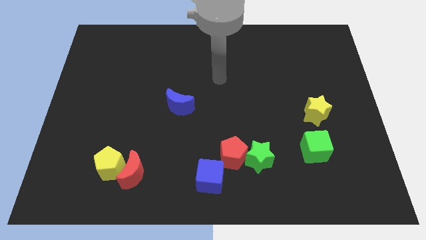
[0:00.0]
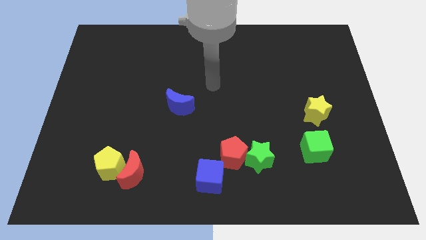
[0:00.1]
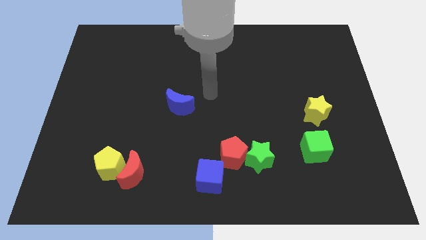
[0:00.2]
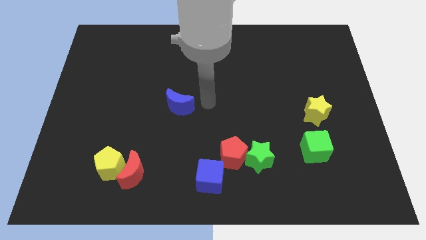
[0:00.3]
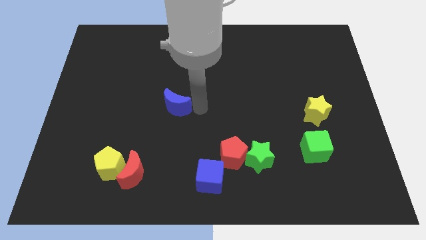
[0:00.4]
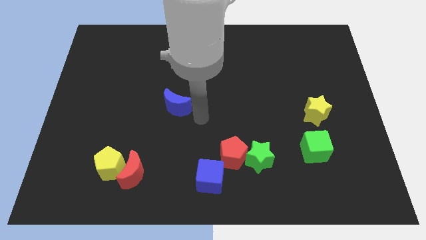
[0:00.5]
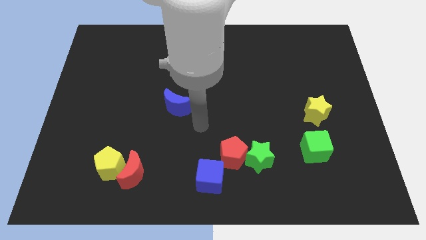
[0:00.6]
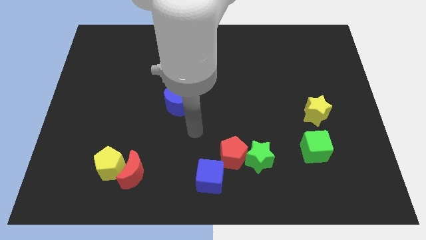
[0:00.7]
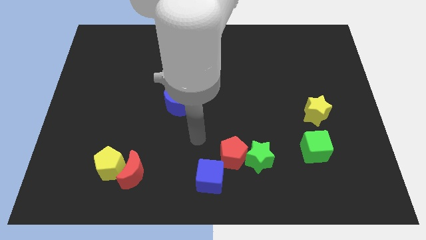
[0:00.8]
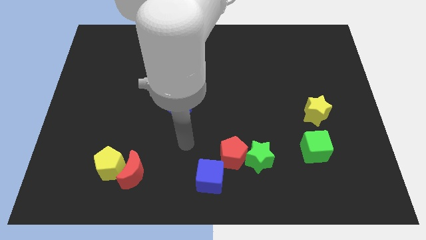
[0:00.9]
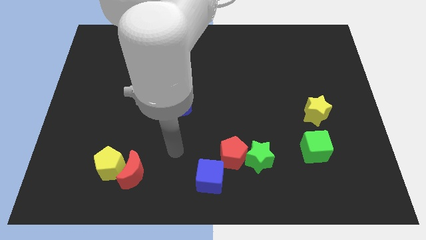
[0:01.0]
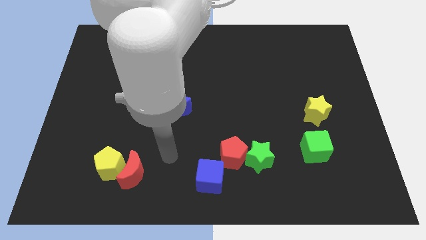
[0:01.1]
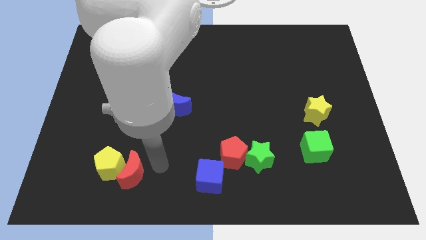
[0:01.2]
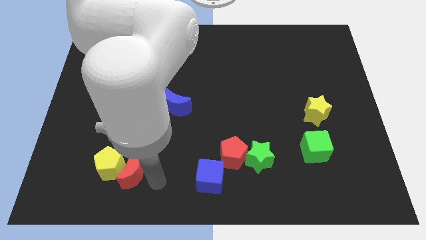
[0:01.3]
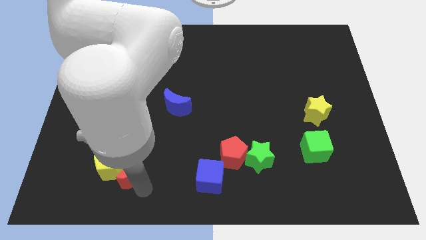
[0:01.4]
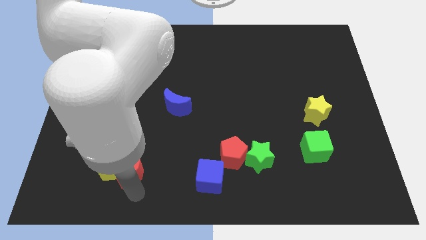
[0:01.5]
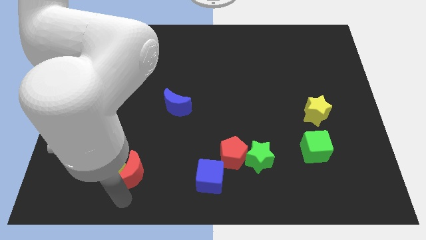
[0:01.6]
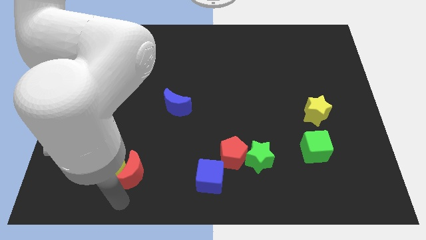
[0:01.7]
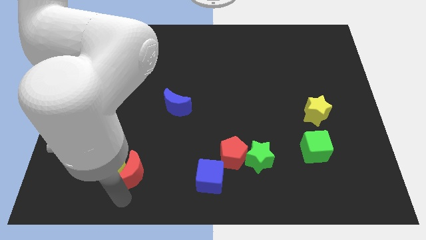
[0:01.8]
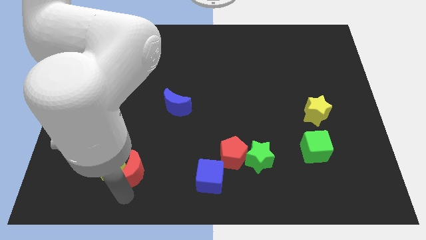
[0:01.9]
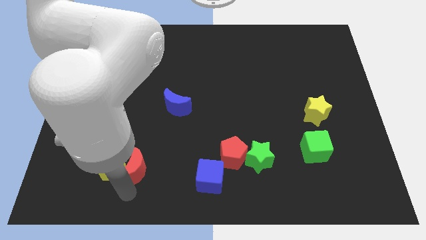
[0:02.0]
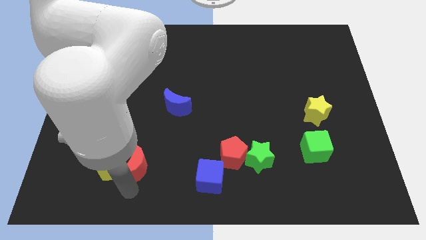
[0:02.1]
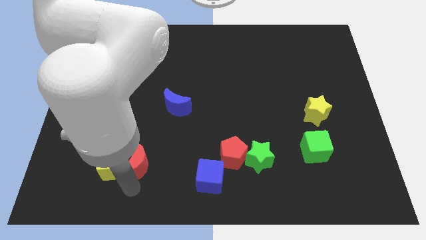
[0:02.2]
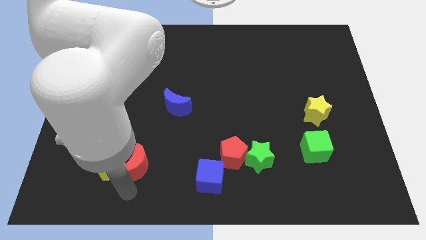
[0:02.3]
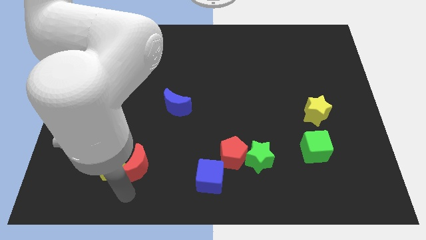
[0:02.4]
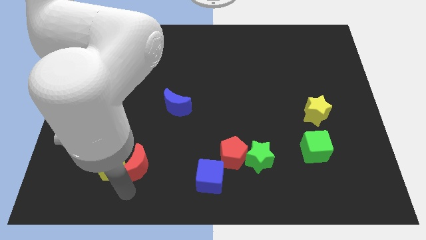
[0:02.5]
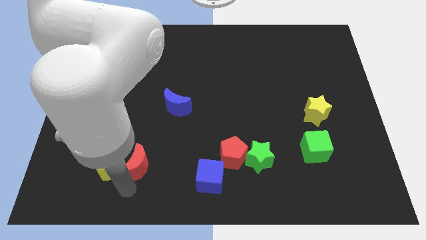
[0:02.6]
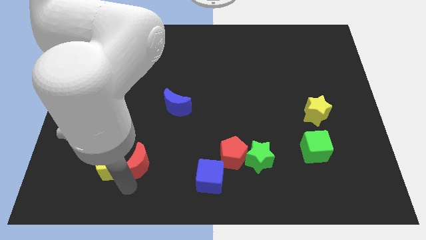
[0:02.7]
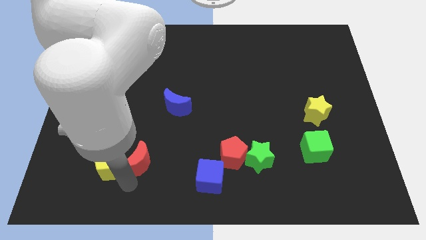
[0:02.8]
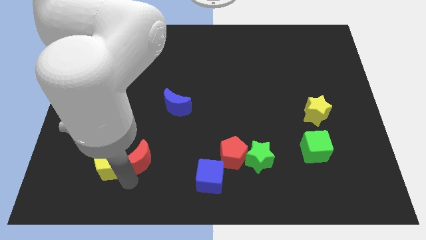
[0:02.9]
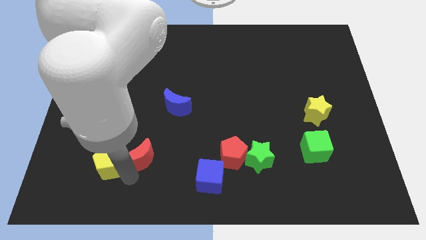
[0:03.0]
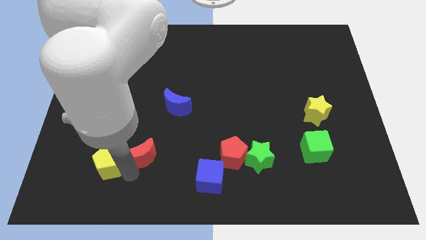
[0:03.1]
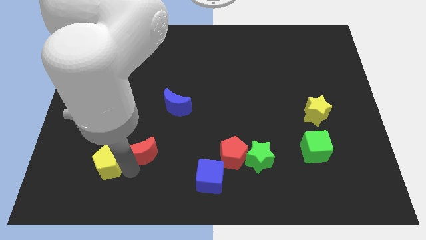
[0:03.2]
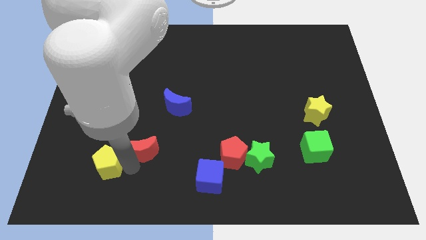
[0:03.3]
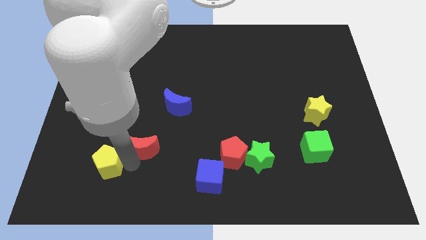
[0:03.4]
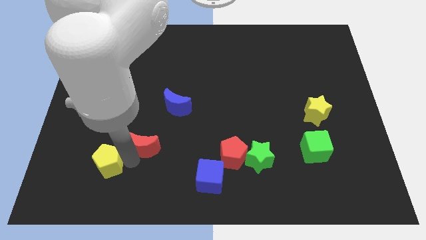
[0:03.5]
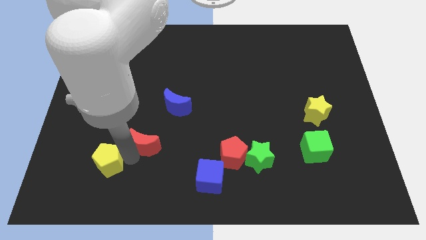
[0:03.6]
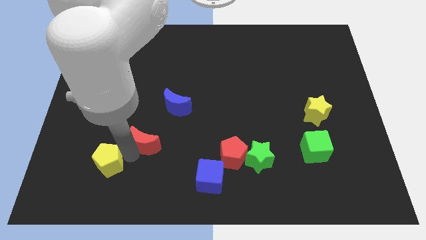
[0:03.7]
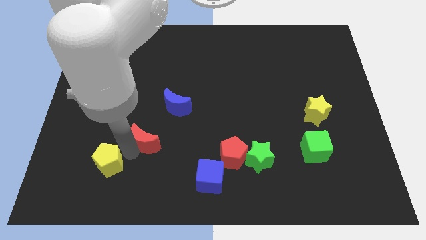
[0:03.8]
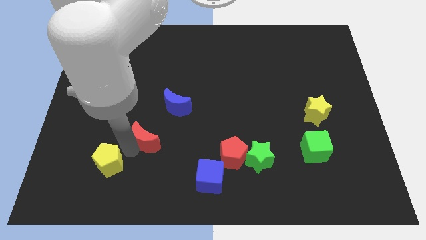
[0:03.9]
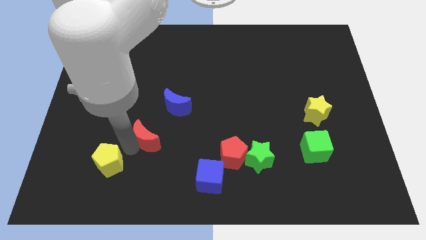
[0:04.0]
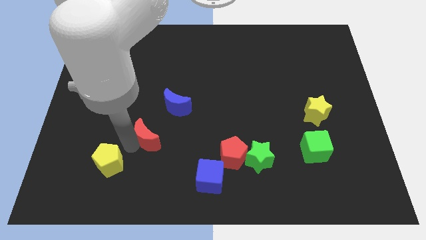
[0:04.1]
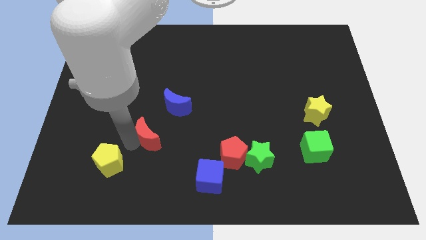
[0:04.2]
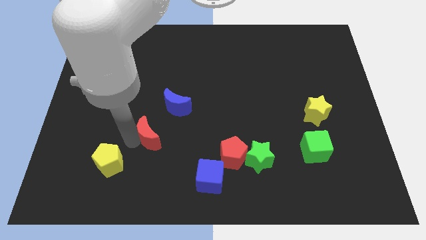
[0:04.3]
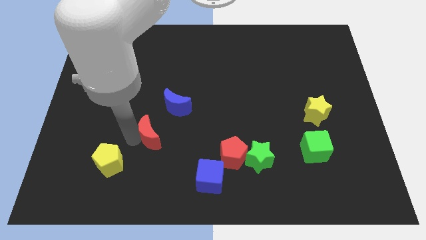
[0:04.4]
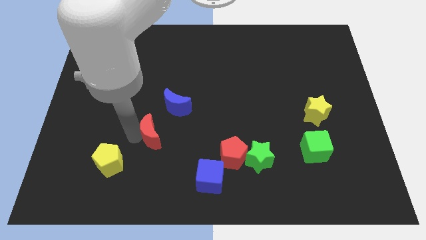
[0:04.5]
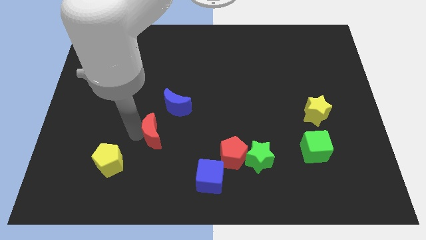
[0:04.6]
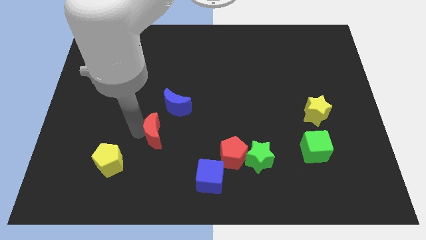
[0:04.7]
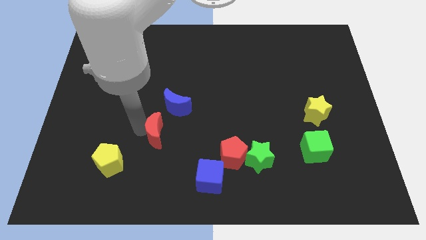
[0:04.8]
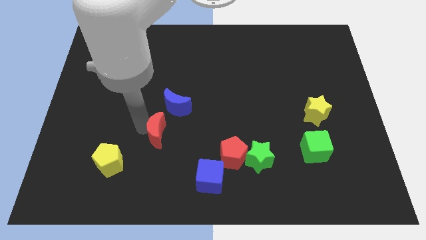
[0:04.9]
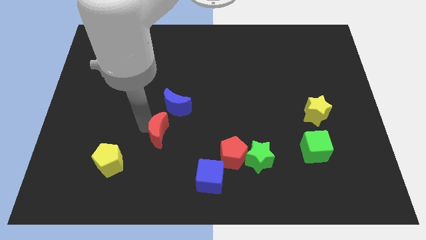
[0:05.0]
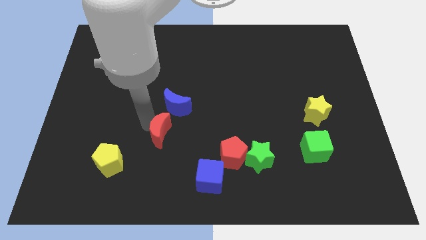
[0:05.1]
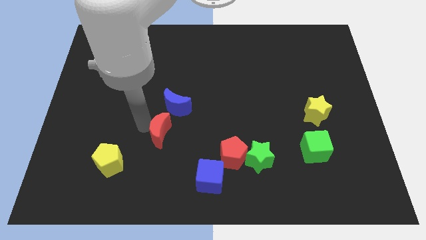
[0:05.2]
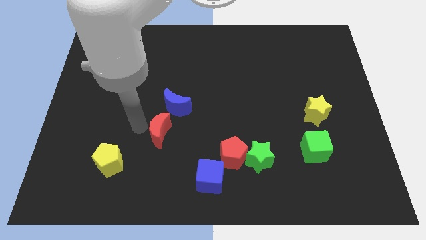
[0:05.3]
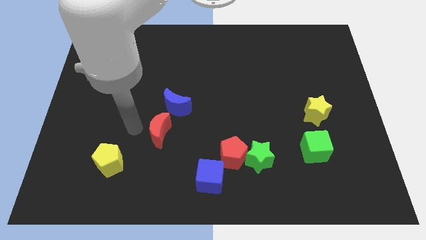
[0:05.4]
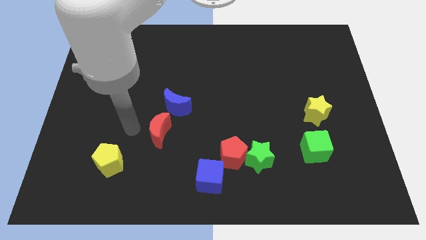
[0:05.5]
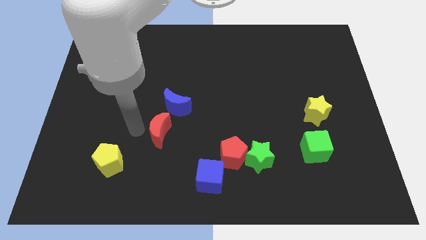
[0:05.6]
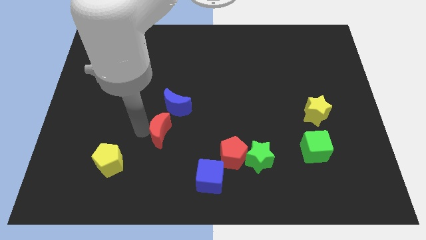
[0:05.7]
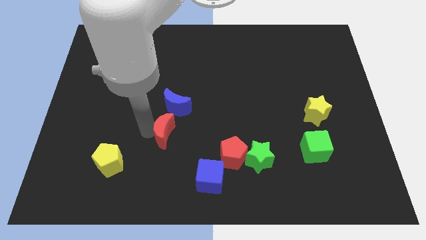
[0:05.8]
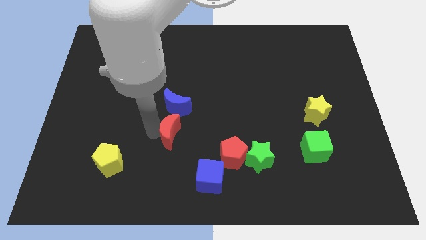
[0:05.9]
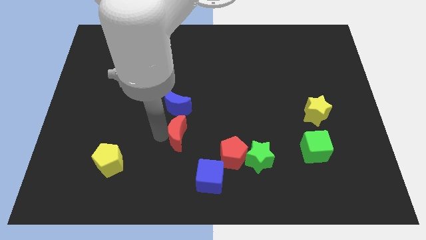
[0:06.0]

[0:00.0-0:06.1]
move the red moon to the middle of the board

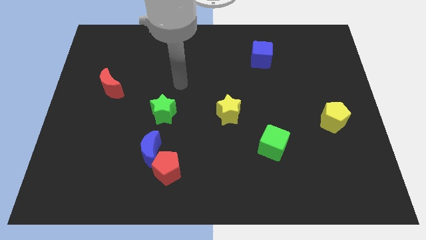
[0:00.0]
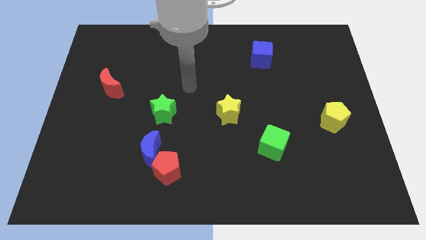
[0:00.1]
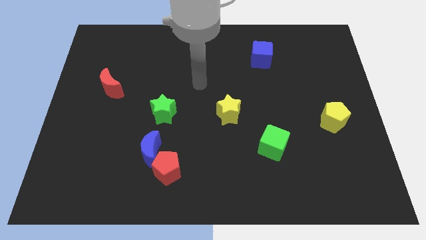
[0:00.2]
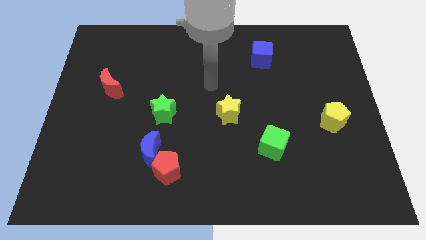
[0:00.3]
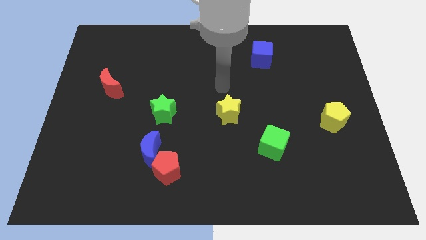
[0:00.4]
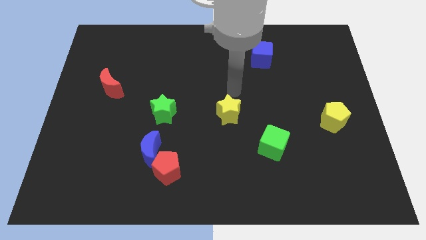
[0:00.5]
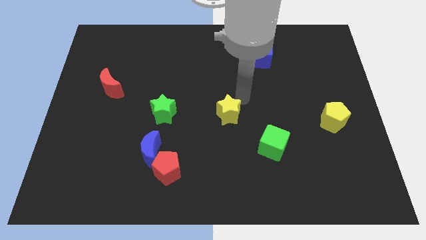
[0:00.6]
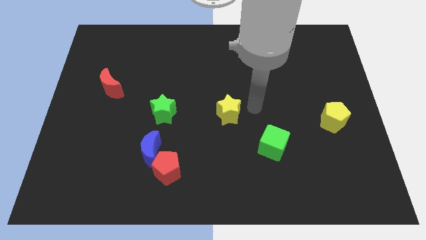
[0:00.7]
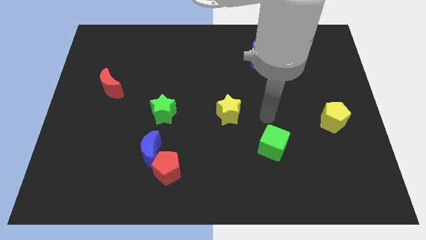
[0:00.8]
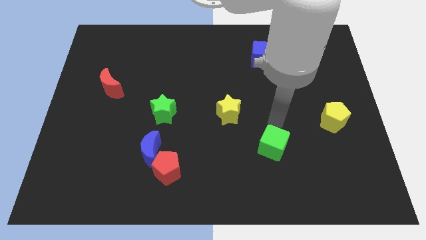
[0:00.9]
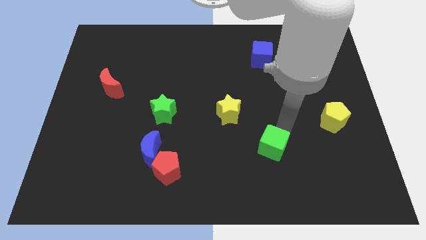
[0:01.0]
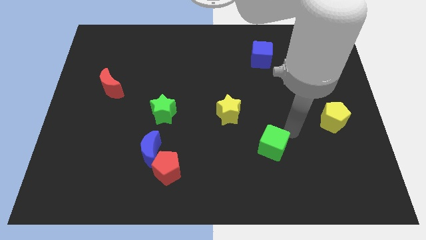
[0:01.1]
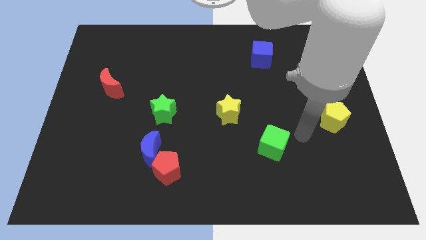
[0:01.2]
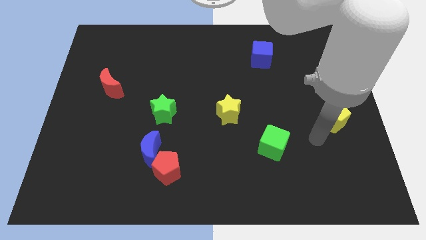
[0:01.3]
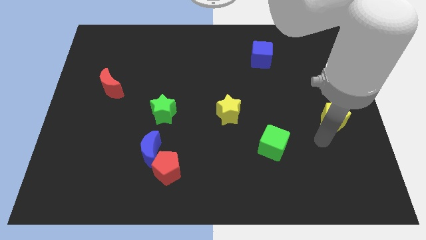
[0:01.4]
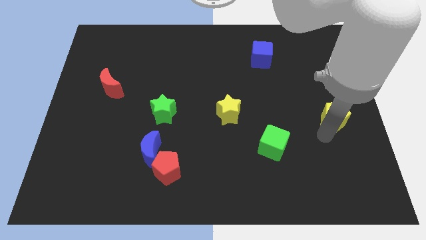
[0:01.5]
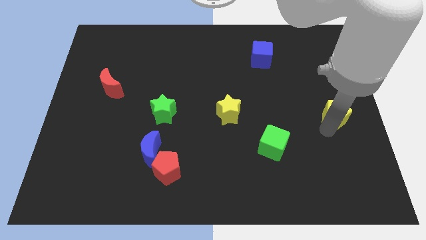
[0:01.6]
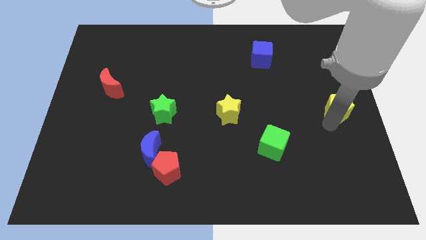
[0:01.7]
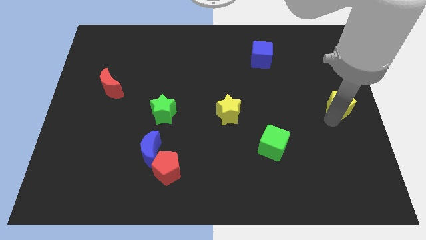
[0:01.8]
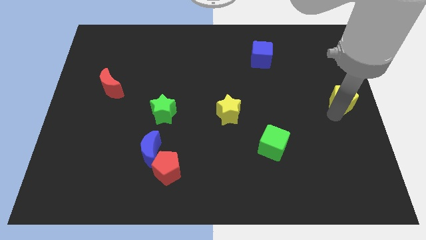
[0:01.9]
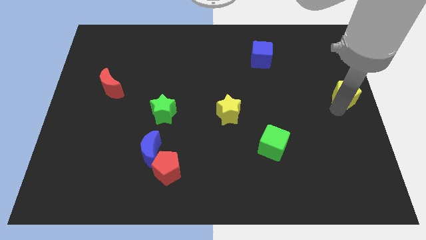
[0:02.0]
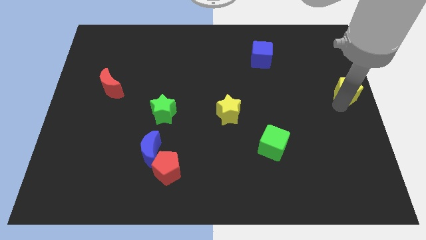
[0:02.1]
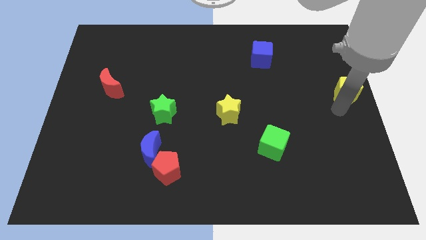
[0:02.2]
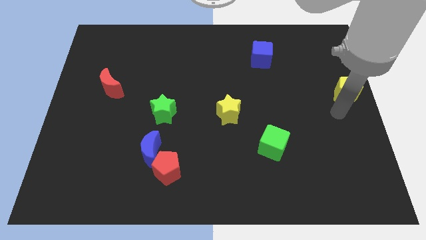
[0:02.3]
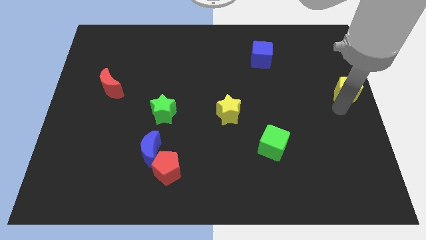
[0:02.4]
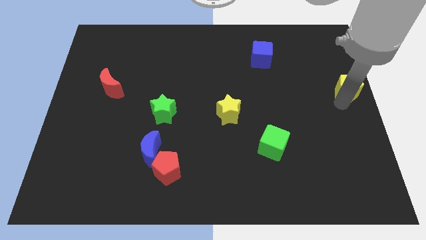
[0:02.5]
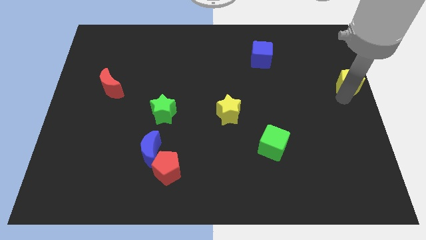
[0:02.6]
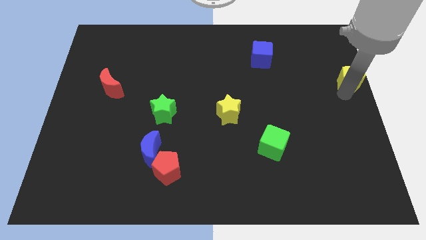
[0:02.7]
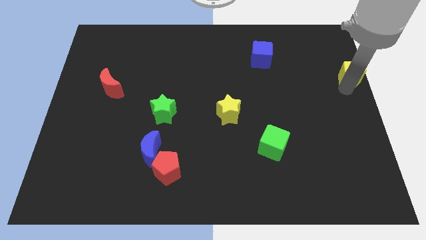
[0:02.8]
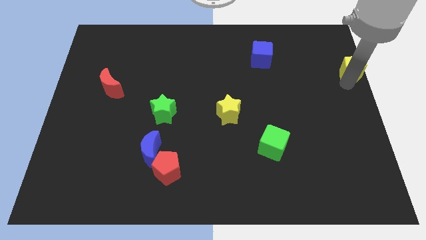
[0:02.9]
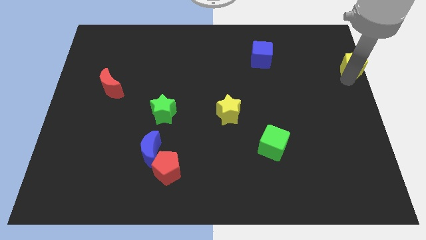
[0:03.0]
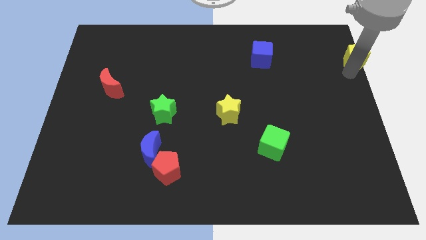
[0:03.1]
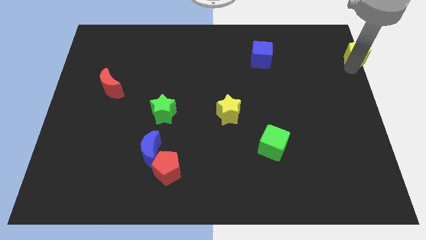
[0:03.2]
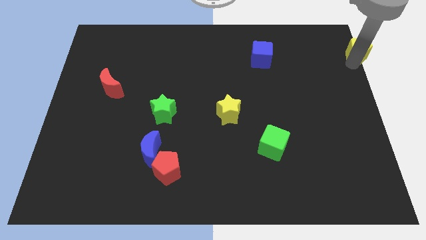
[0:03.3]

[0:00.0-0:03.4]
move the yellow pentagon to the top right of the board
